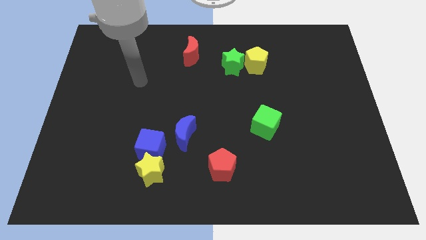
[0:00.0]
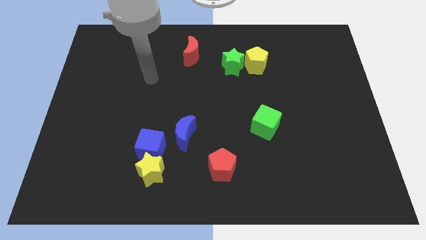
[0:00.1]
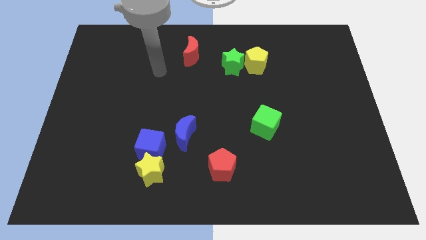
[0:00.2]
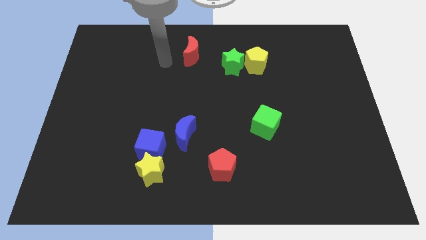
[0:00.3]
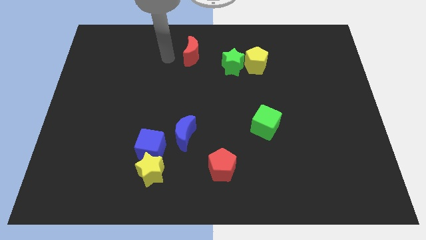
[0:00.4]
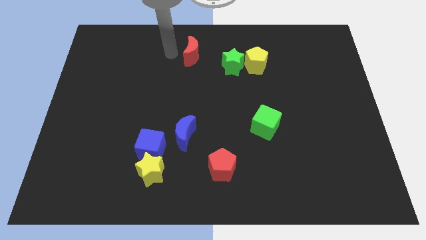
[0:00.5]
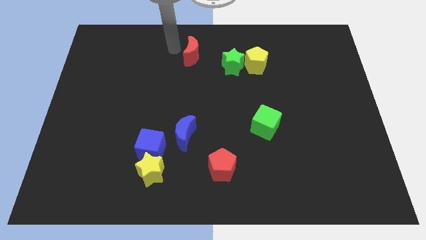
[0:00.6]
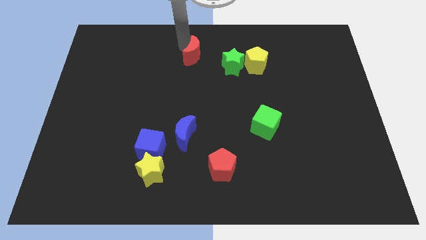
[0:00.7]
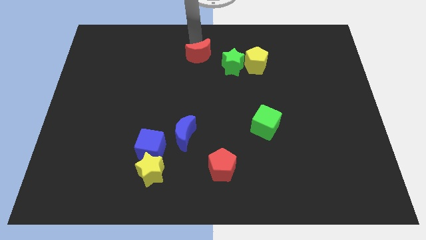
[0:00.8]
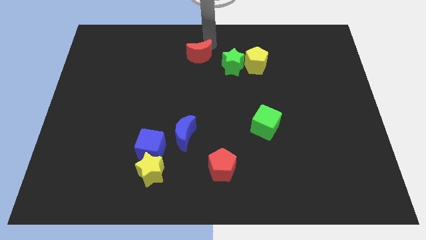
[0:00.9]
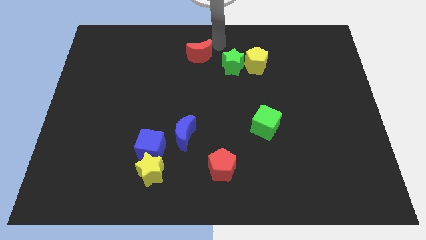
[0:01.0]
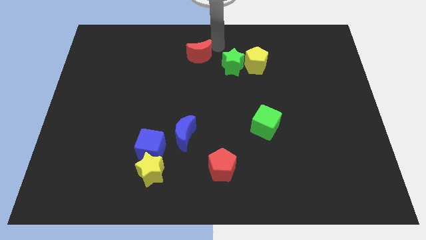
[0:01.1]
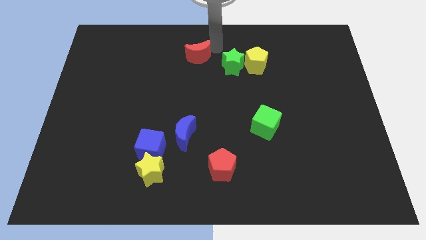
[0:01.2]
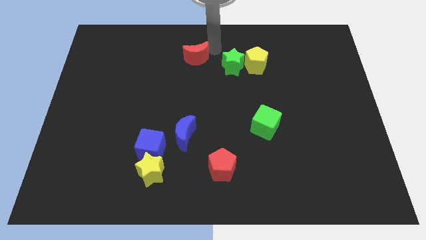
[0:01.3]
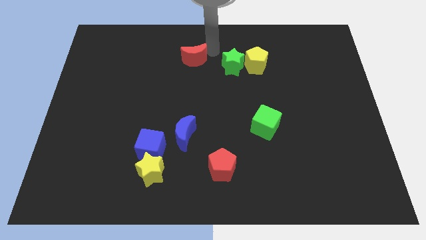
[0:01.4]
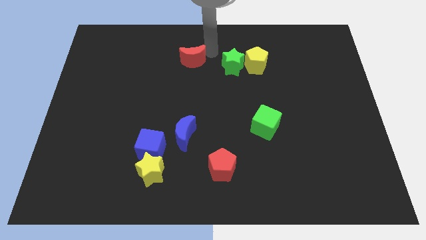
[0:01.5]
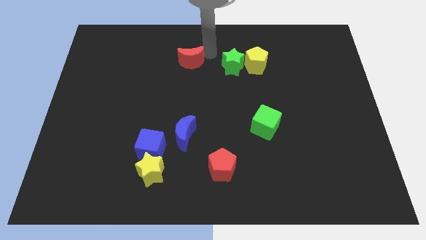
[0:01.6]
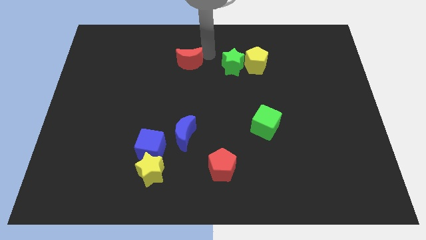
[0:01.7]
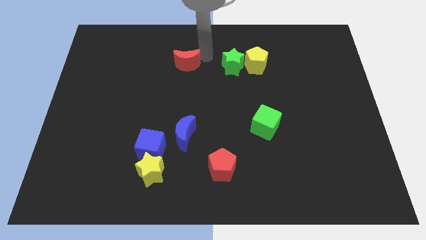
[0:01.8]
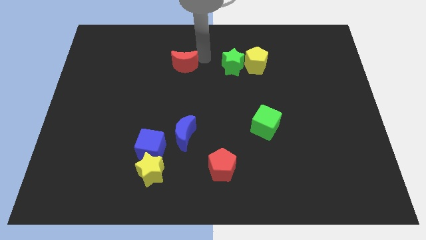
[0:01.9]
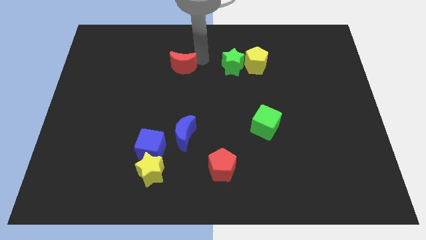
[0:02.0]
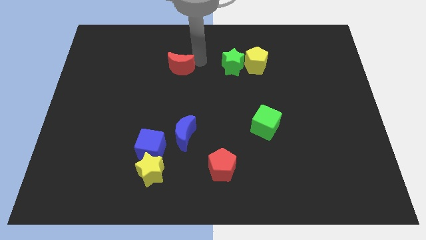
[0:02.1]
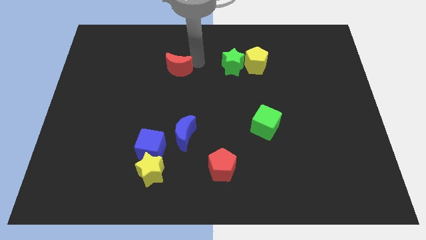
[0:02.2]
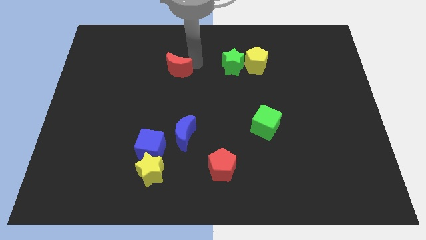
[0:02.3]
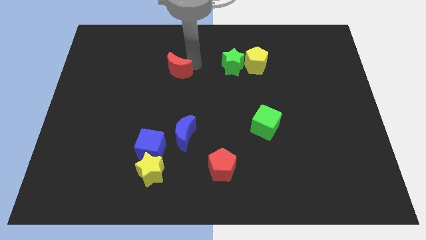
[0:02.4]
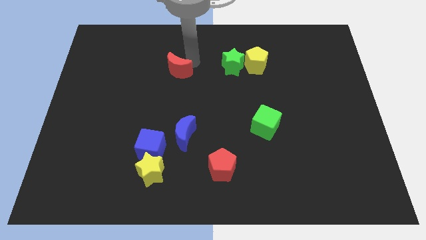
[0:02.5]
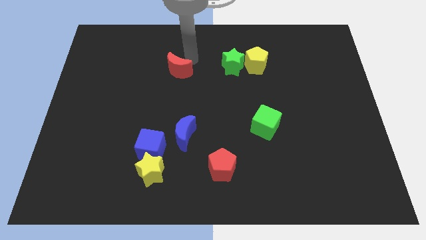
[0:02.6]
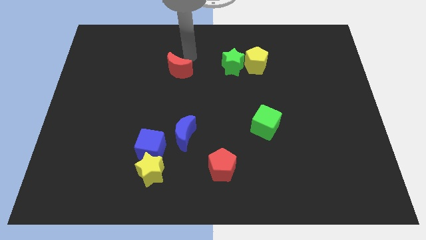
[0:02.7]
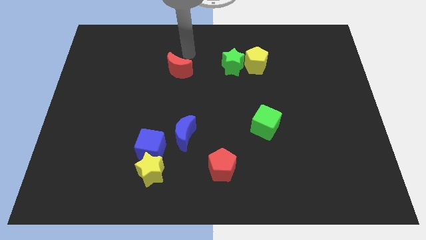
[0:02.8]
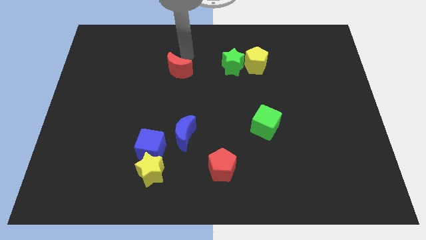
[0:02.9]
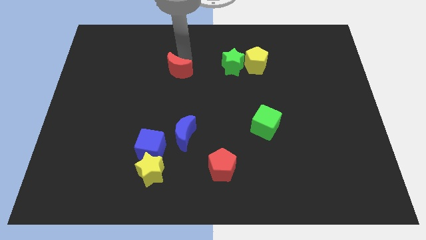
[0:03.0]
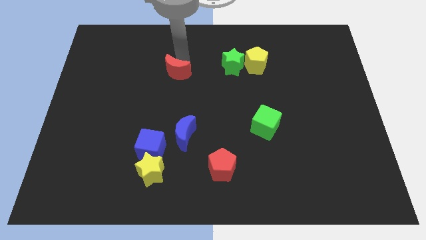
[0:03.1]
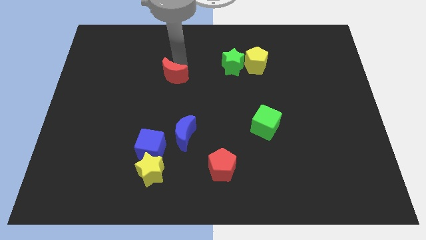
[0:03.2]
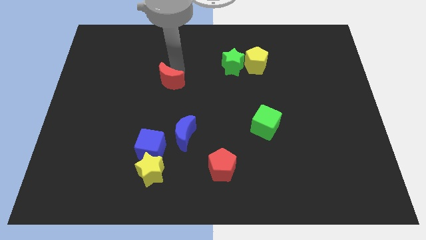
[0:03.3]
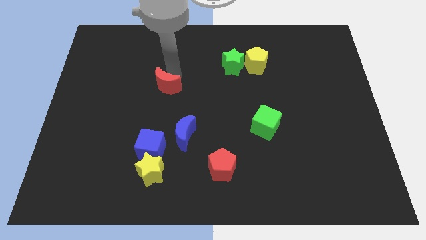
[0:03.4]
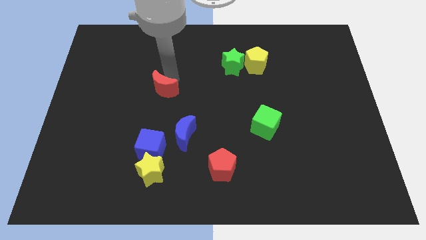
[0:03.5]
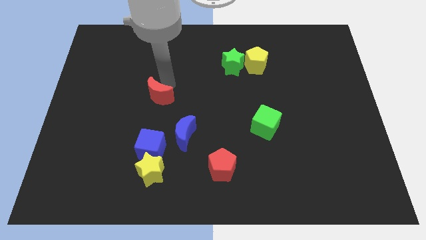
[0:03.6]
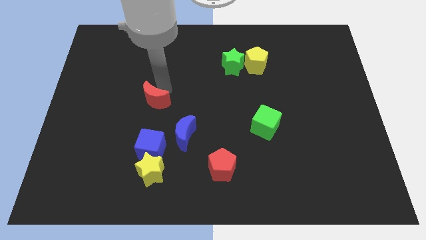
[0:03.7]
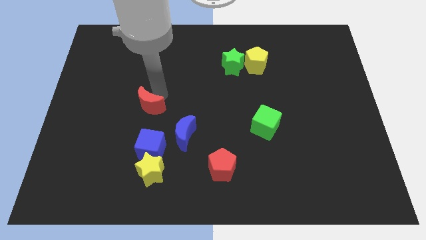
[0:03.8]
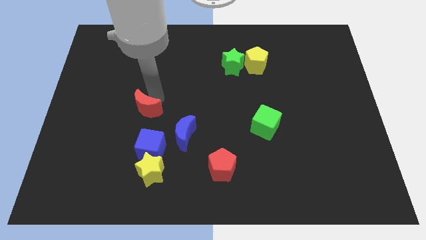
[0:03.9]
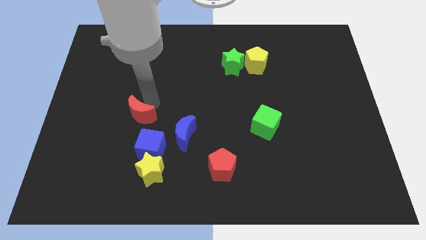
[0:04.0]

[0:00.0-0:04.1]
slide the red moon to the top left of the blue cube

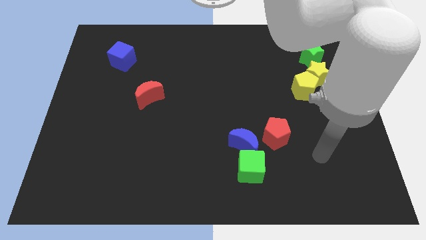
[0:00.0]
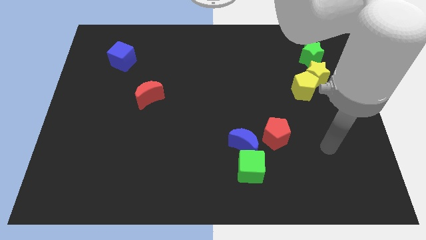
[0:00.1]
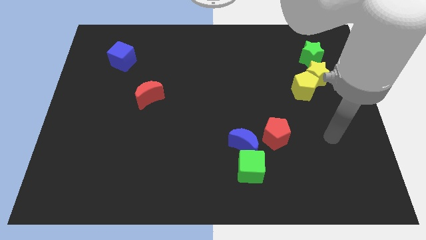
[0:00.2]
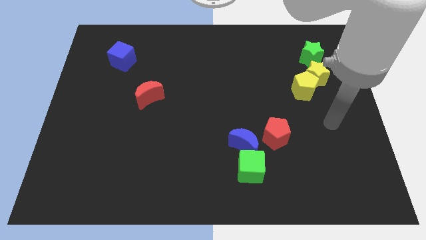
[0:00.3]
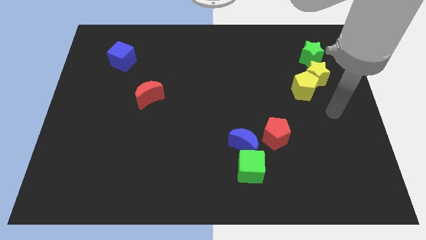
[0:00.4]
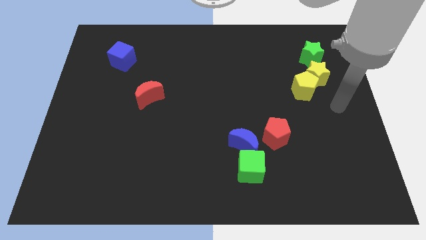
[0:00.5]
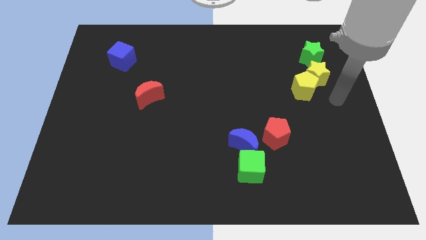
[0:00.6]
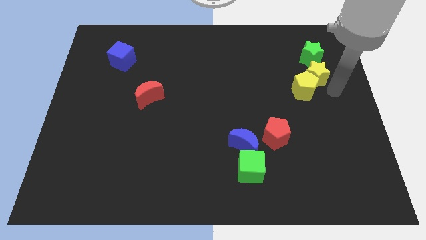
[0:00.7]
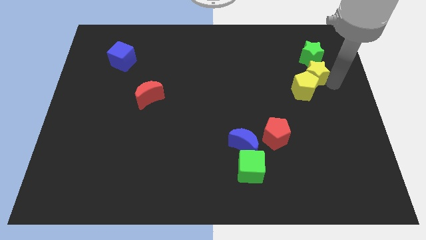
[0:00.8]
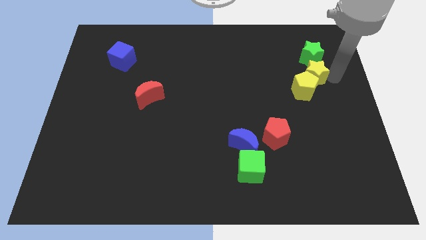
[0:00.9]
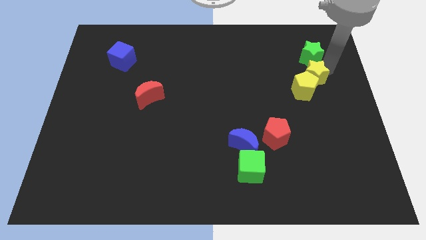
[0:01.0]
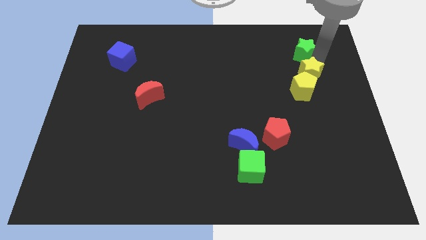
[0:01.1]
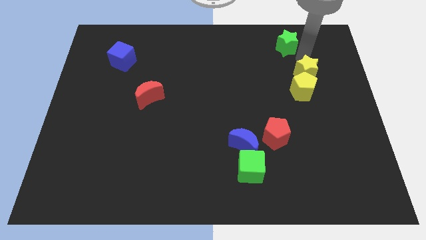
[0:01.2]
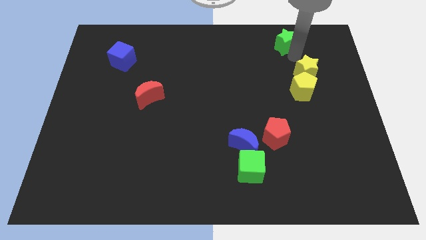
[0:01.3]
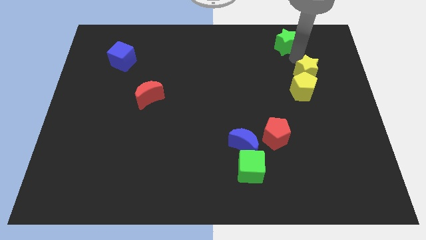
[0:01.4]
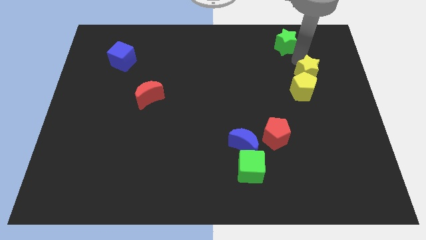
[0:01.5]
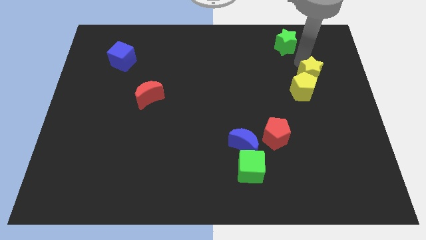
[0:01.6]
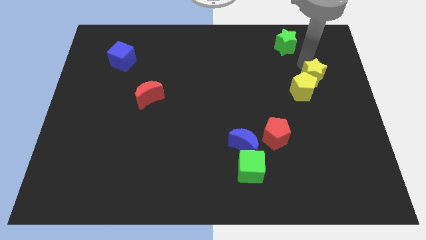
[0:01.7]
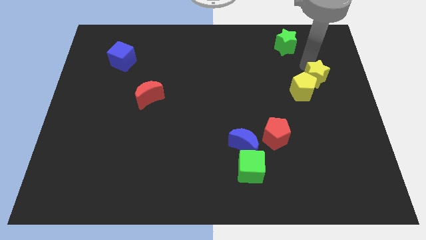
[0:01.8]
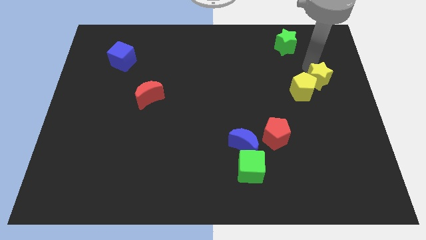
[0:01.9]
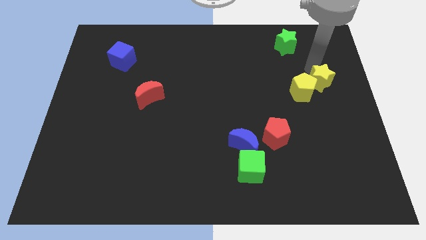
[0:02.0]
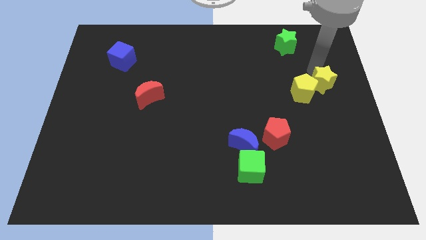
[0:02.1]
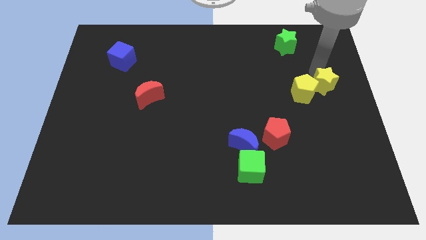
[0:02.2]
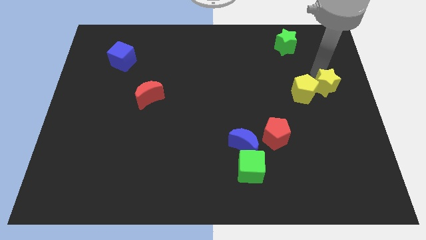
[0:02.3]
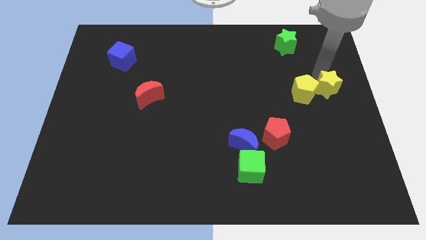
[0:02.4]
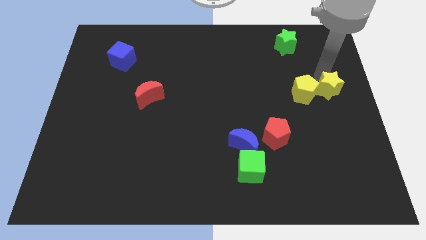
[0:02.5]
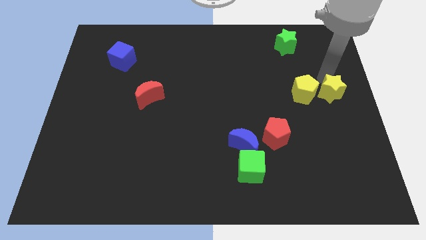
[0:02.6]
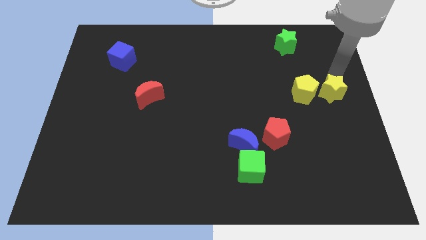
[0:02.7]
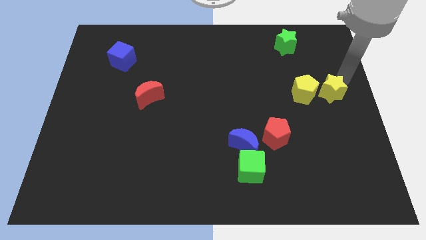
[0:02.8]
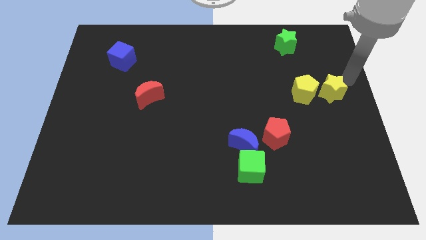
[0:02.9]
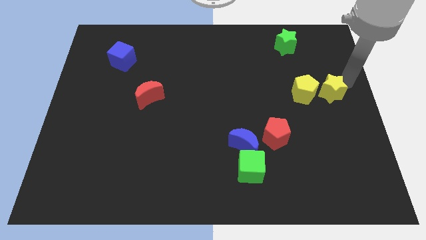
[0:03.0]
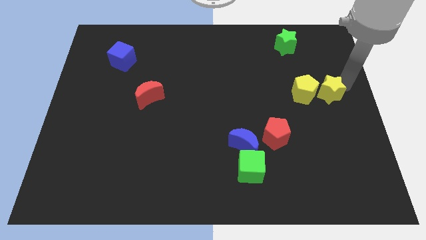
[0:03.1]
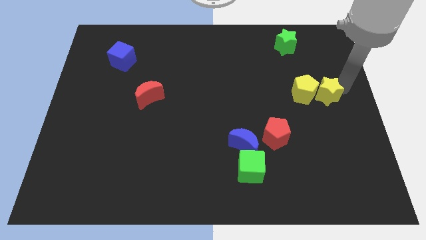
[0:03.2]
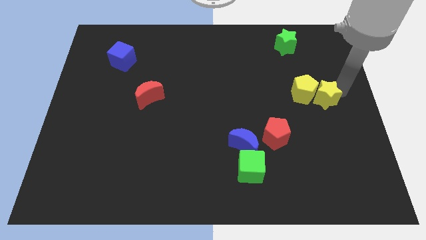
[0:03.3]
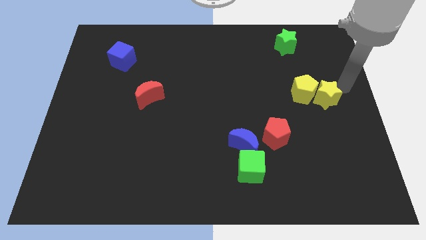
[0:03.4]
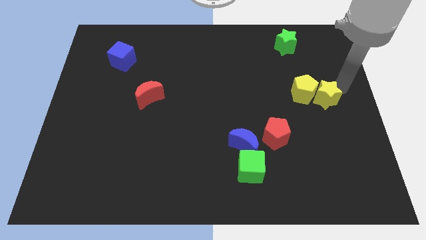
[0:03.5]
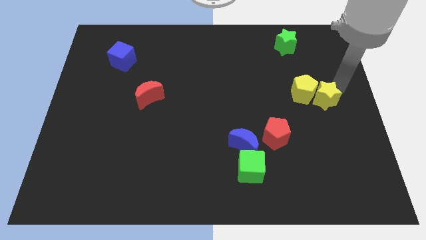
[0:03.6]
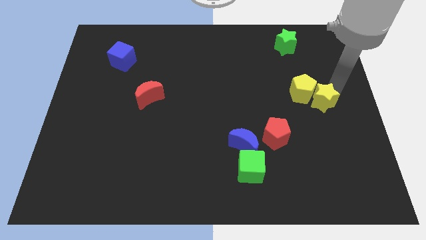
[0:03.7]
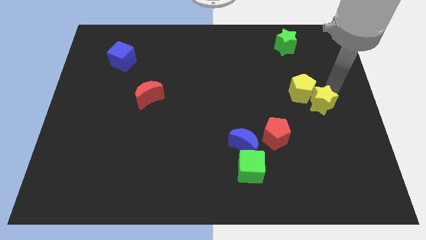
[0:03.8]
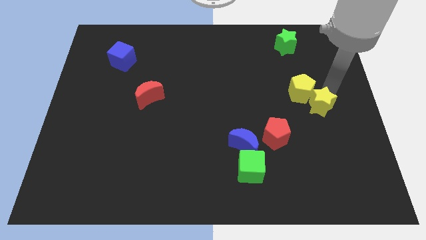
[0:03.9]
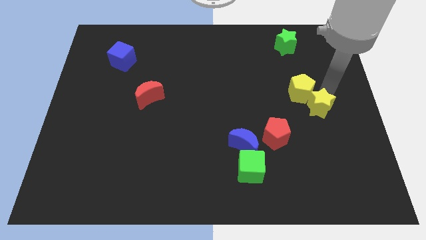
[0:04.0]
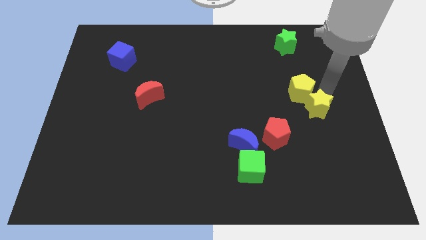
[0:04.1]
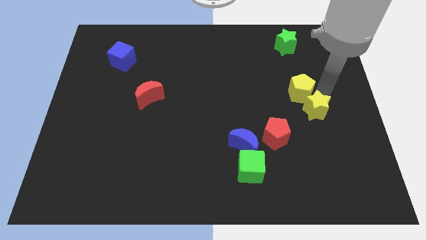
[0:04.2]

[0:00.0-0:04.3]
push the yellow star diagonally up and to the right of the red pentagon

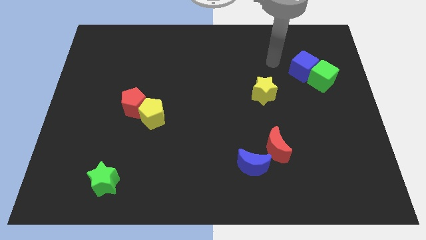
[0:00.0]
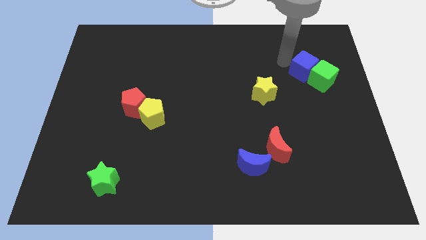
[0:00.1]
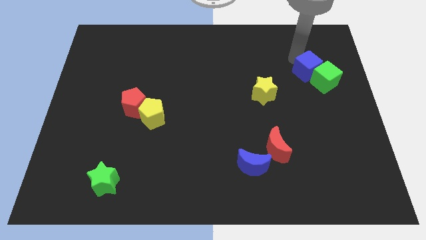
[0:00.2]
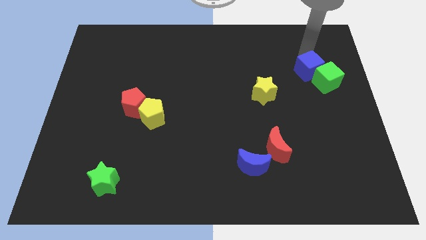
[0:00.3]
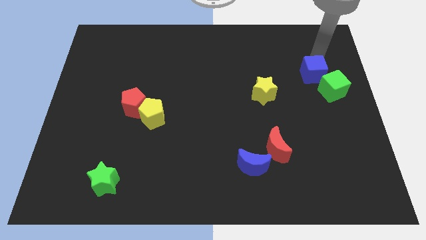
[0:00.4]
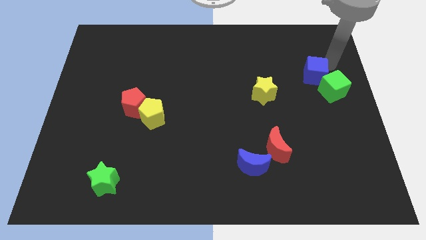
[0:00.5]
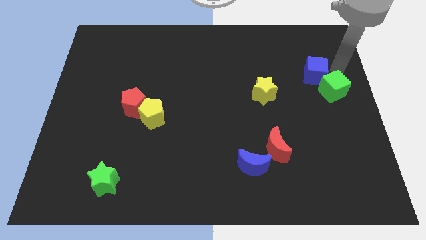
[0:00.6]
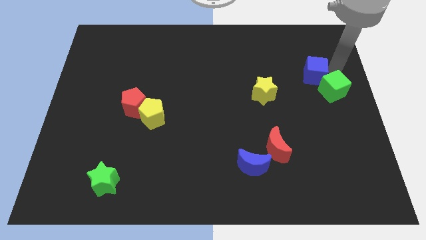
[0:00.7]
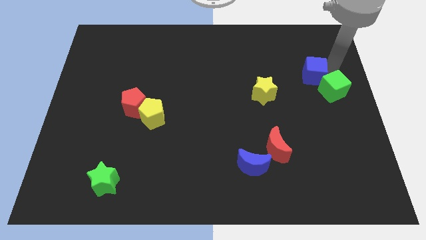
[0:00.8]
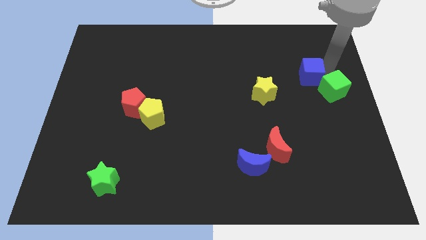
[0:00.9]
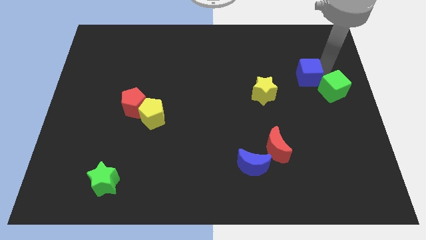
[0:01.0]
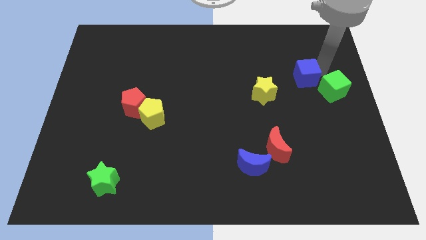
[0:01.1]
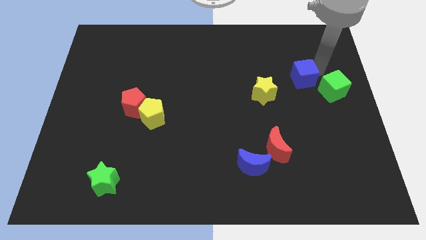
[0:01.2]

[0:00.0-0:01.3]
slide the blue cube diagonally up and to the right of the yellow star
